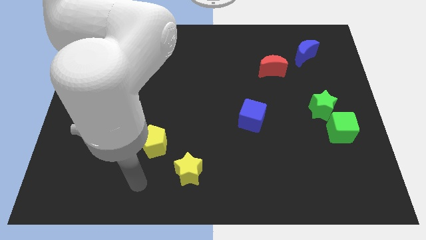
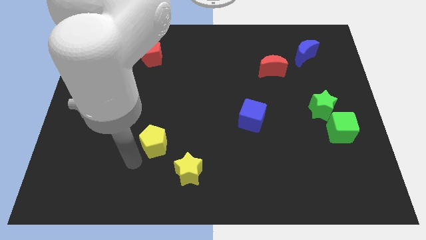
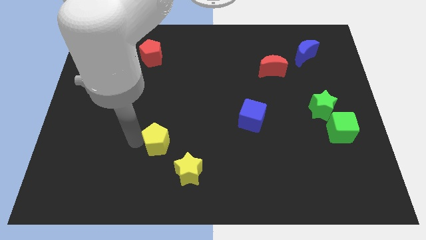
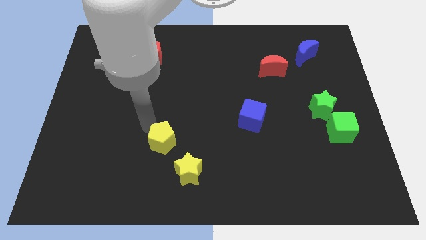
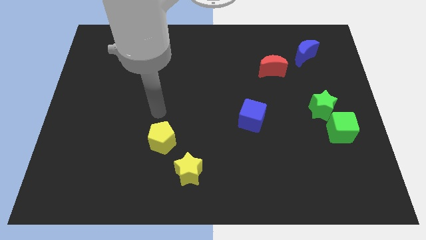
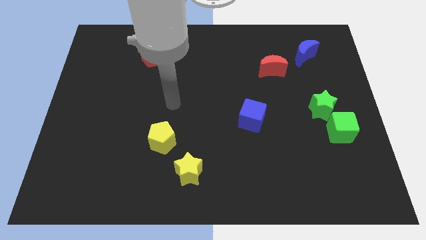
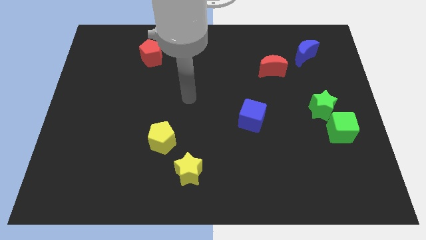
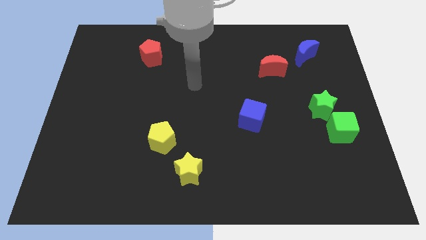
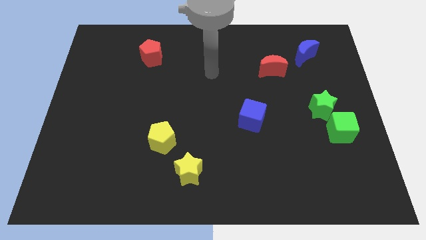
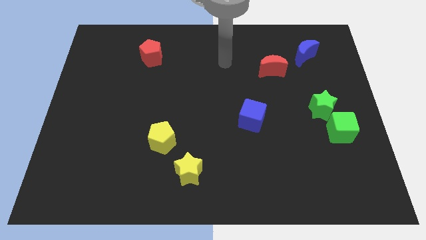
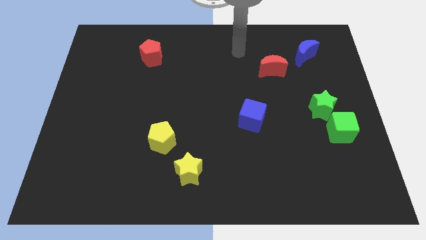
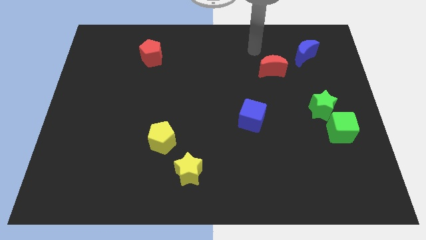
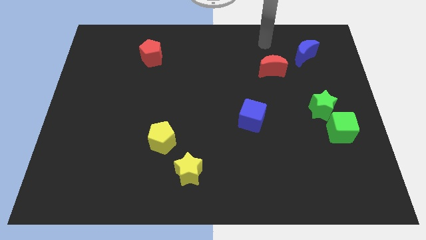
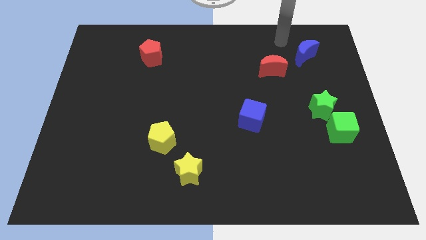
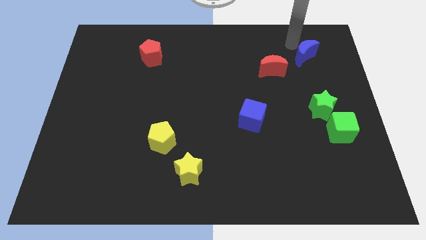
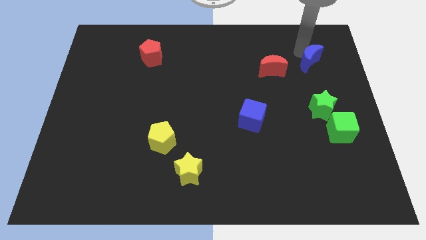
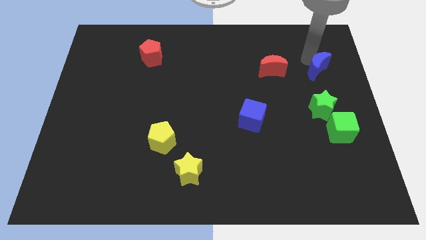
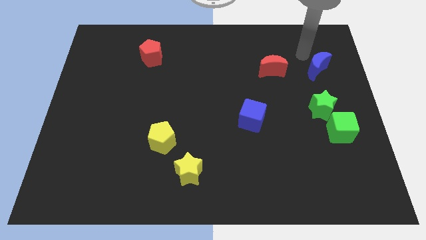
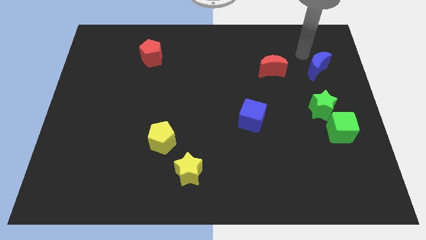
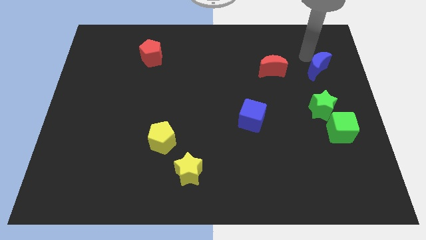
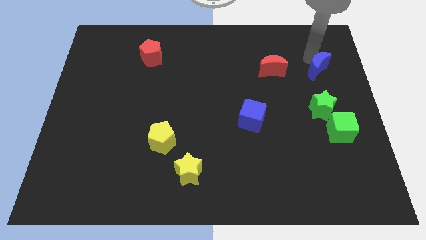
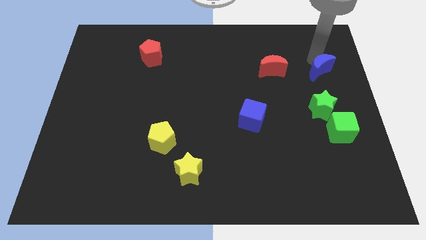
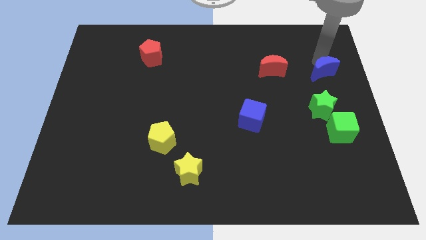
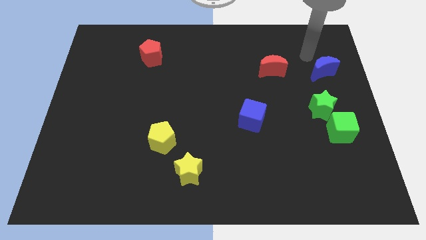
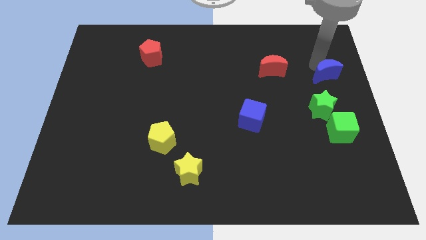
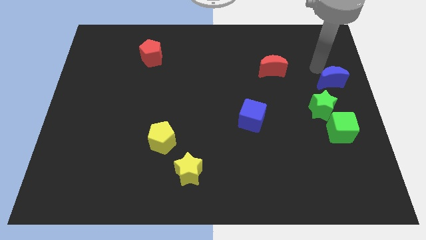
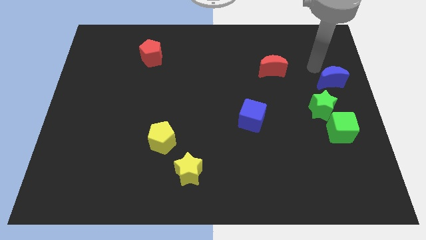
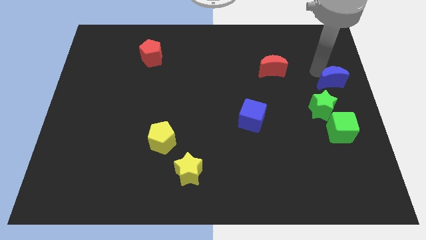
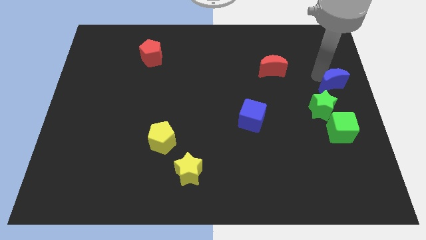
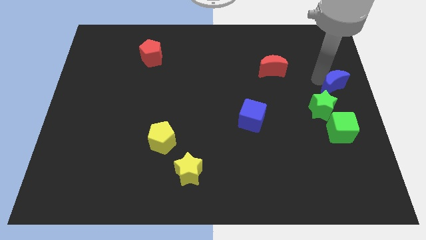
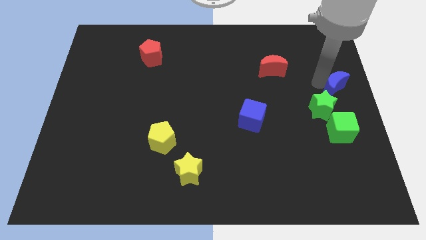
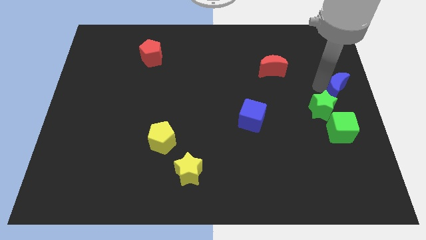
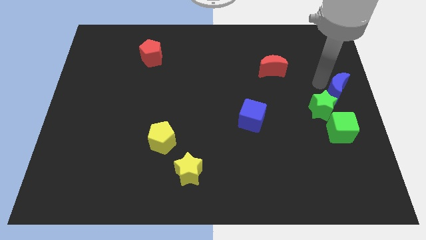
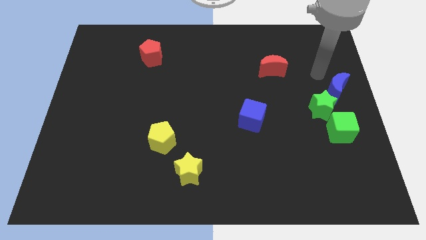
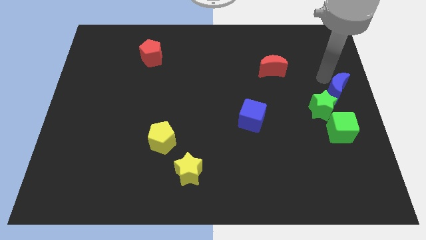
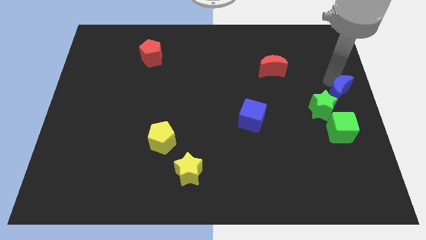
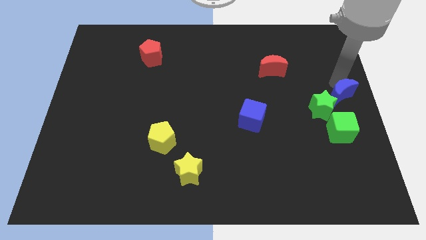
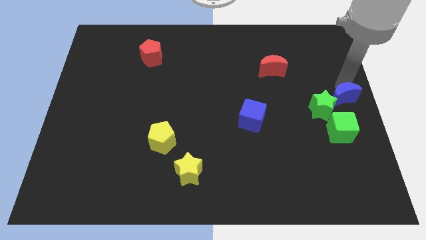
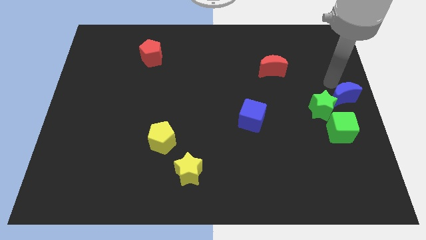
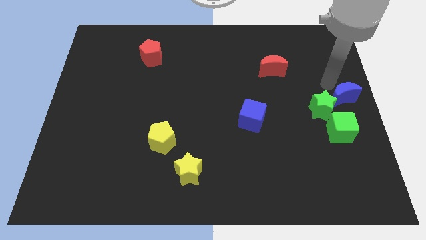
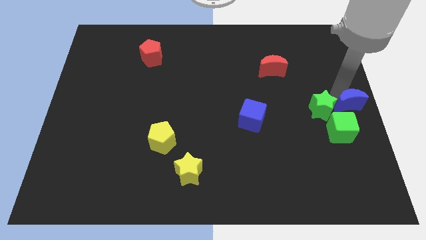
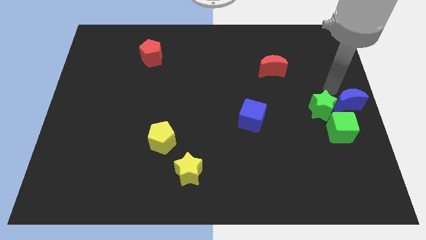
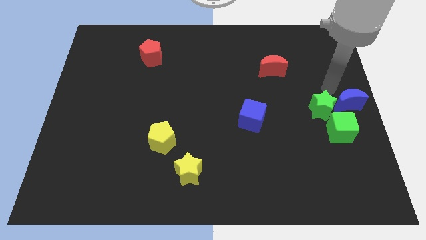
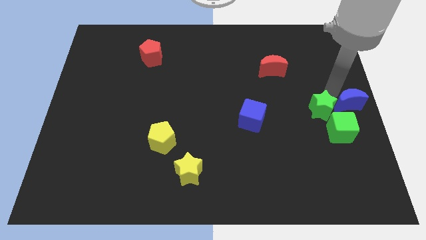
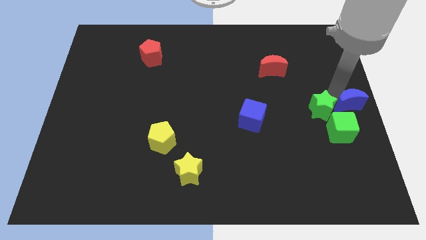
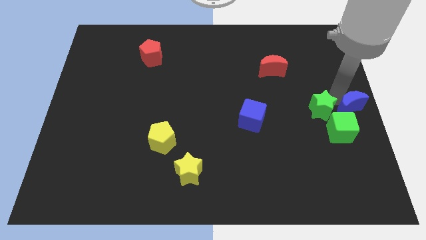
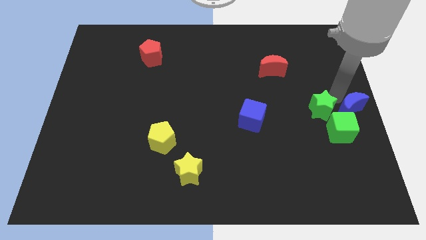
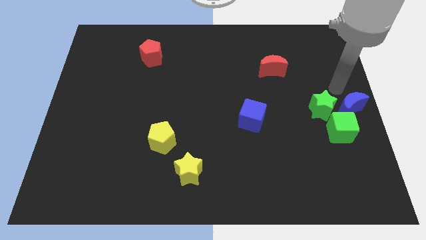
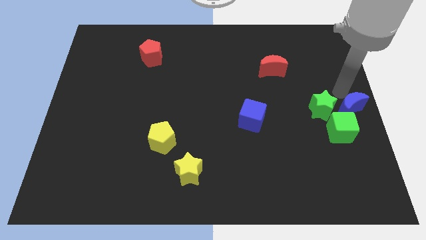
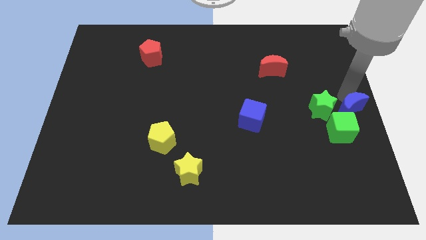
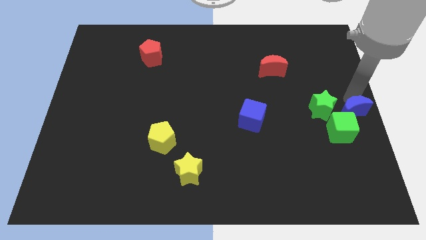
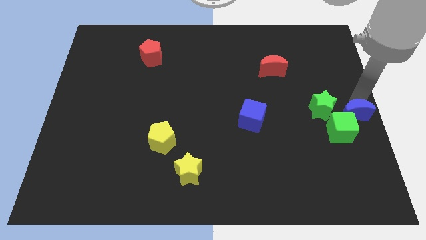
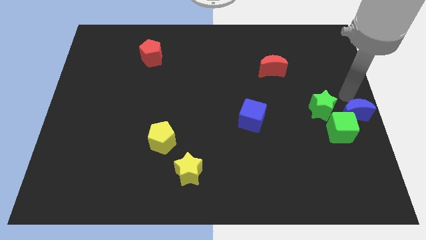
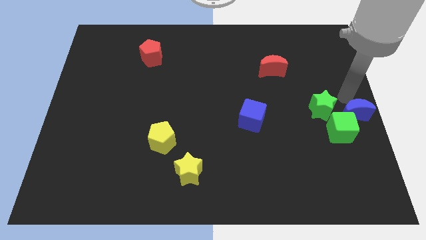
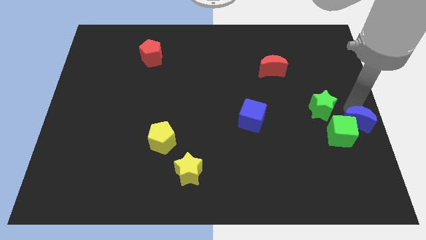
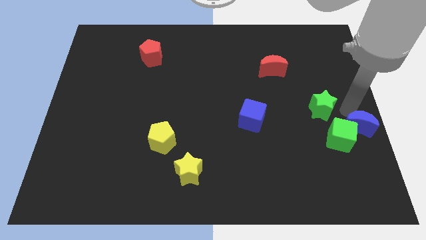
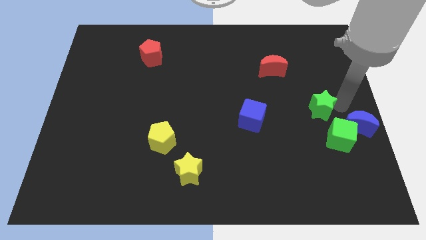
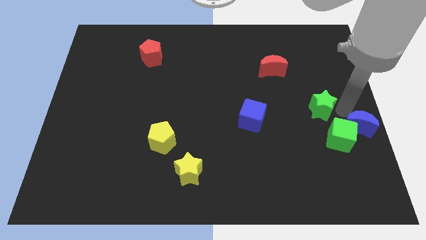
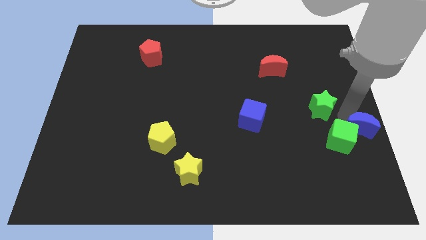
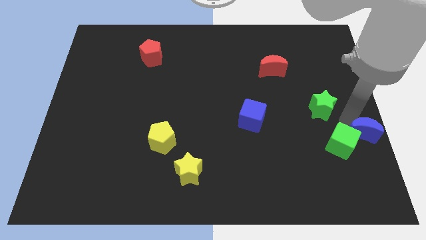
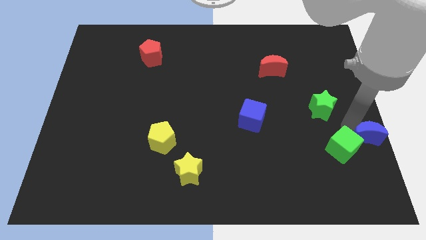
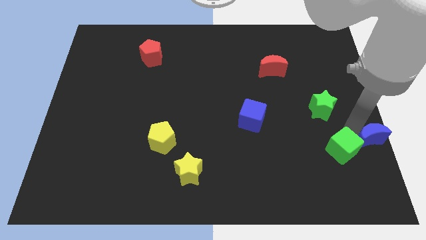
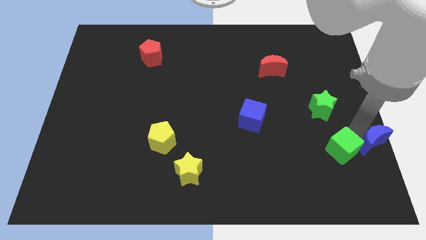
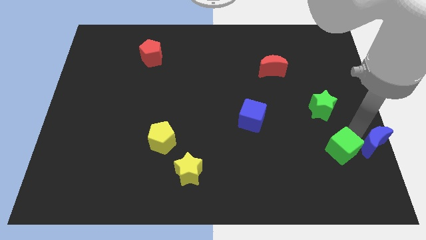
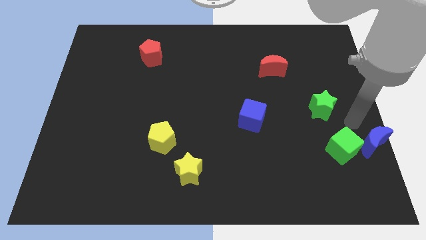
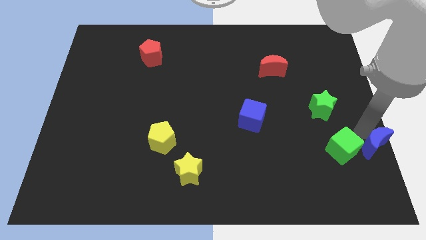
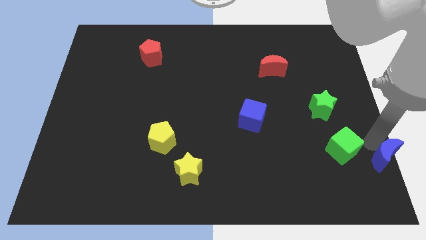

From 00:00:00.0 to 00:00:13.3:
slide the blue moon to the lower right corner

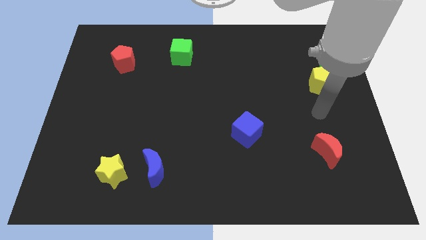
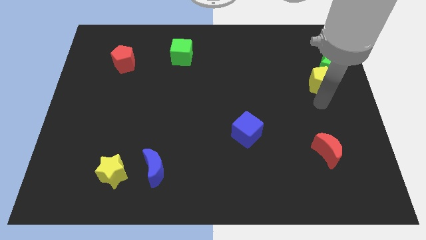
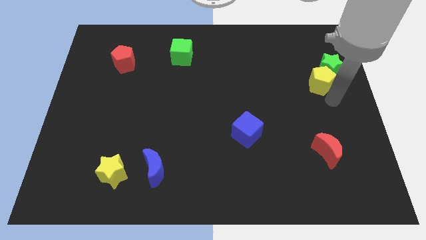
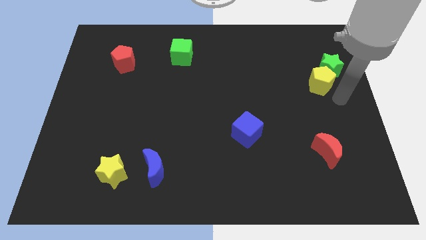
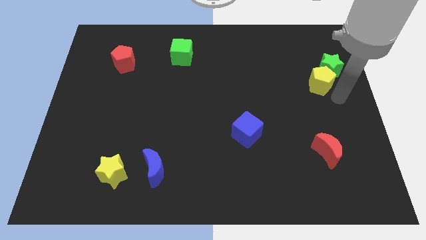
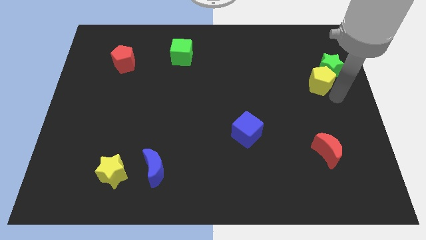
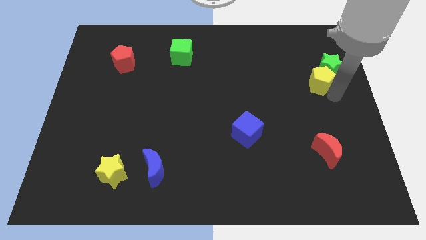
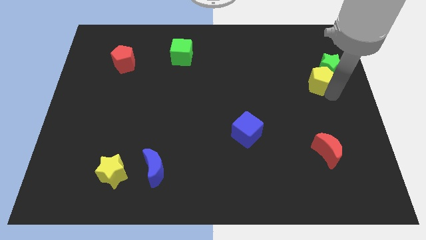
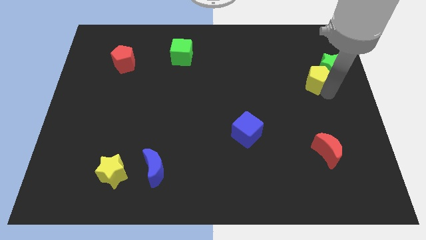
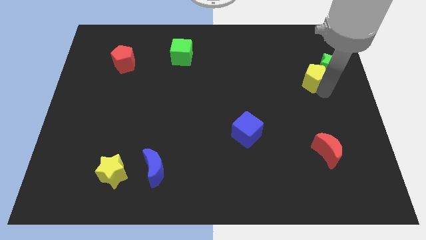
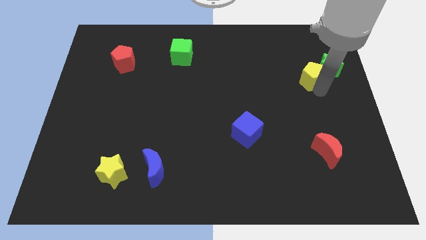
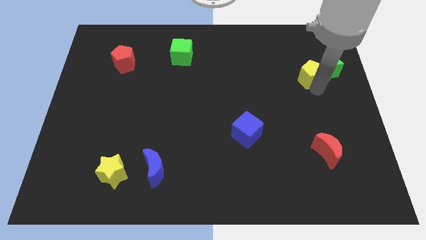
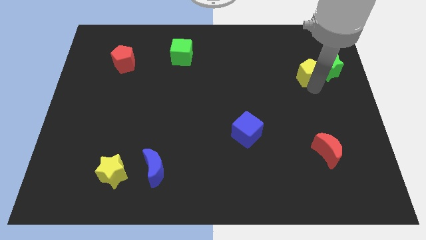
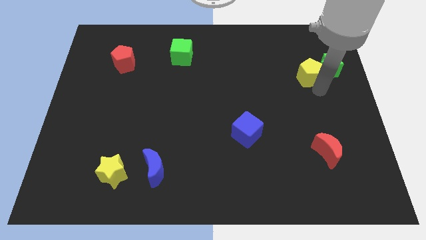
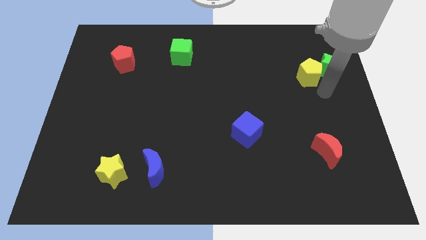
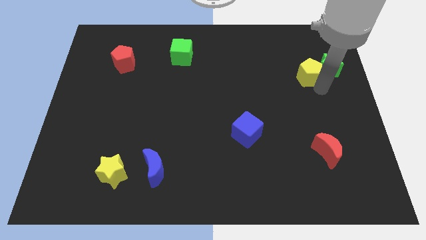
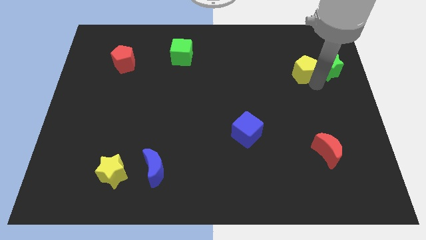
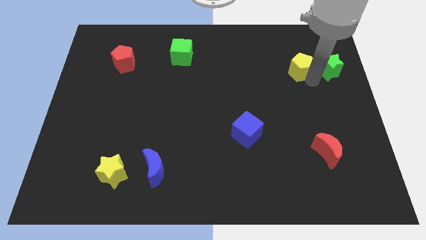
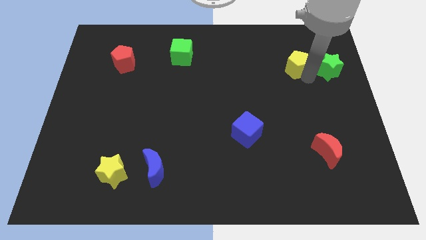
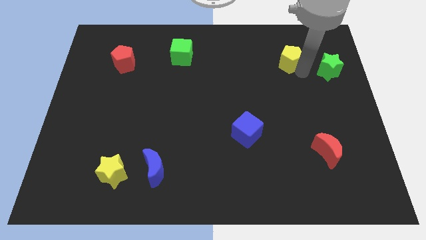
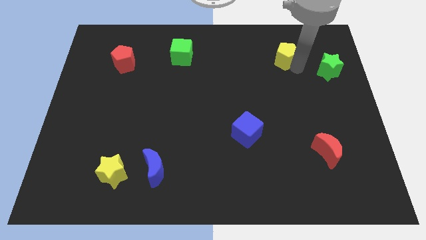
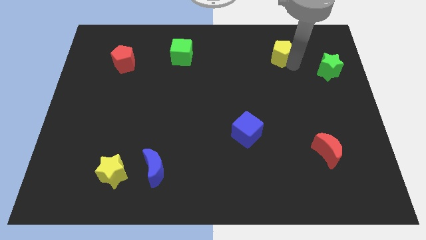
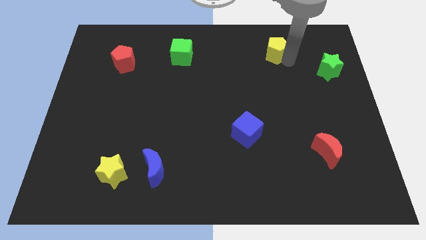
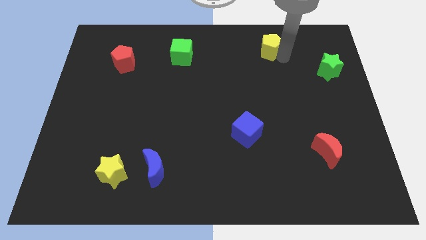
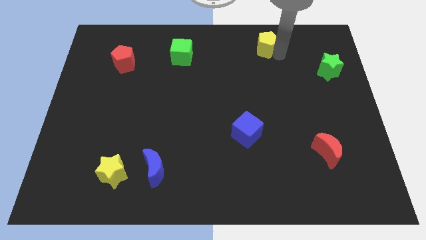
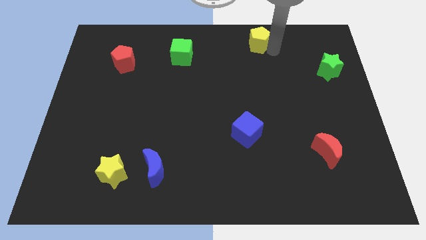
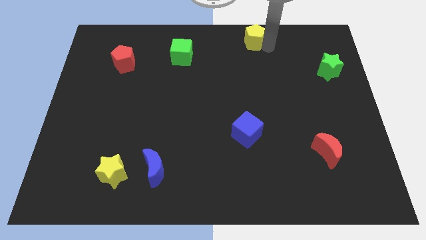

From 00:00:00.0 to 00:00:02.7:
put the yellow pentagon to the towards your base
